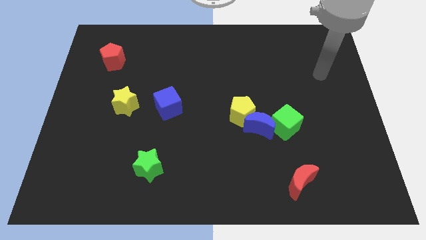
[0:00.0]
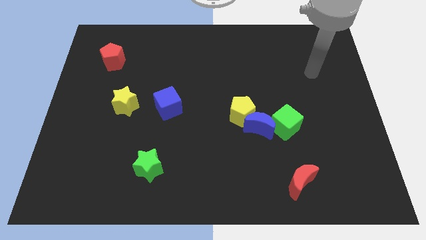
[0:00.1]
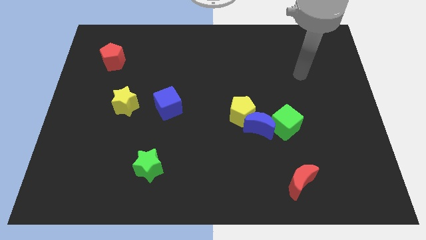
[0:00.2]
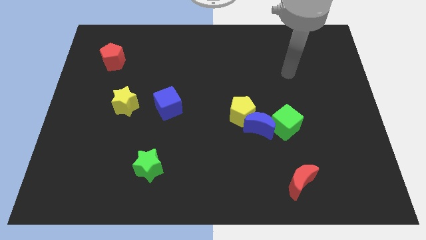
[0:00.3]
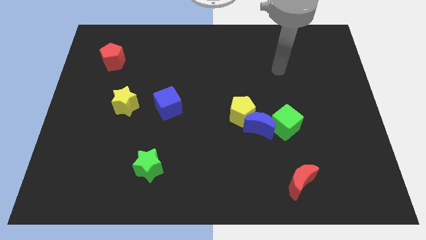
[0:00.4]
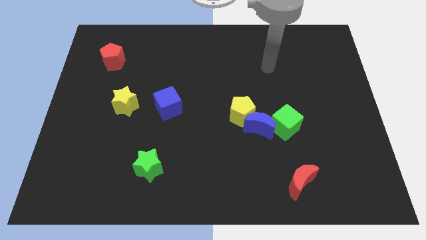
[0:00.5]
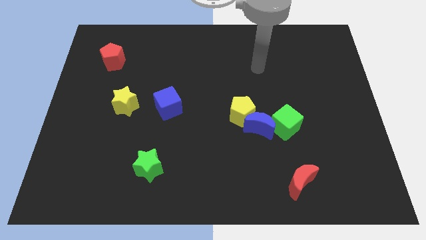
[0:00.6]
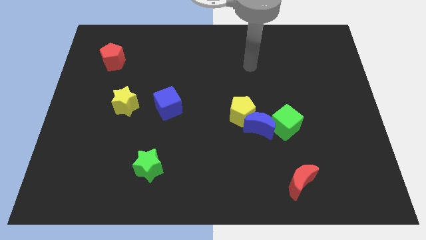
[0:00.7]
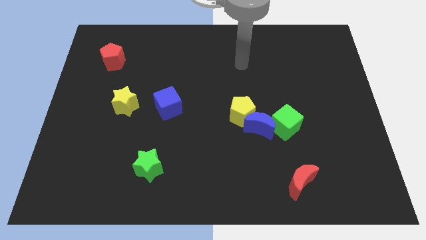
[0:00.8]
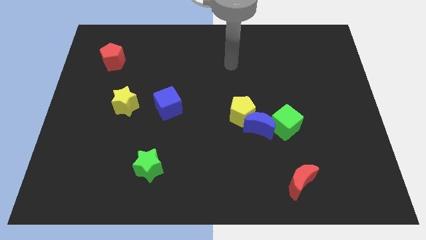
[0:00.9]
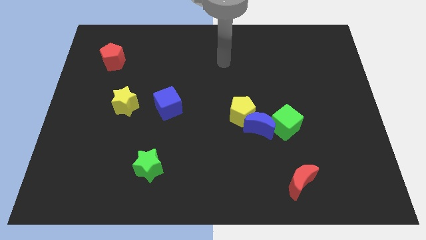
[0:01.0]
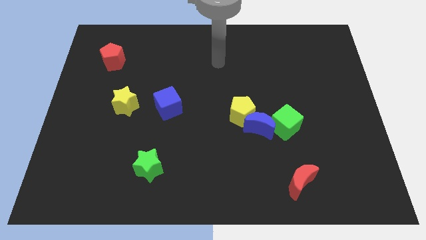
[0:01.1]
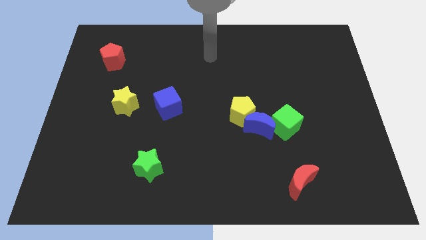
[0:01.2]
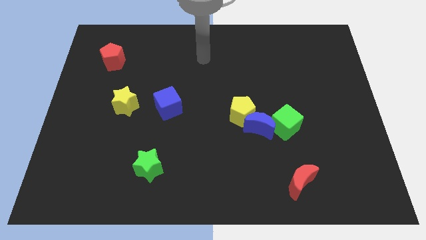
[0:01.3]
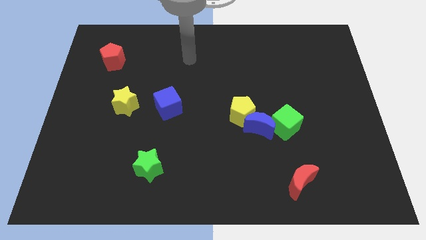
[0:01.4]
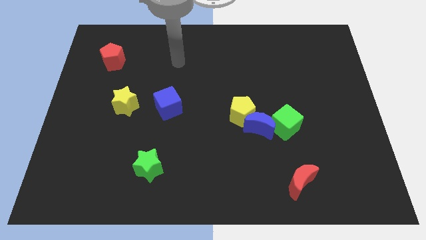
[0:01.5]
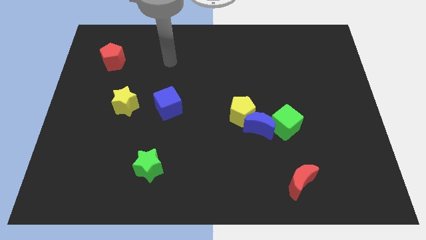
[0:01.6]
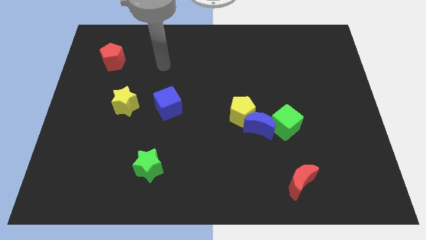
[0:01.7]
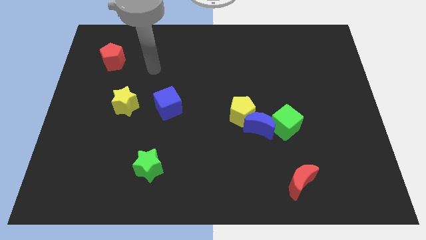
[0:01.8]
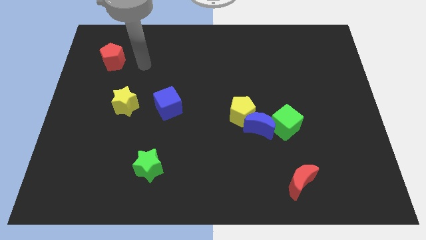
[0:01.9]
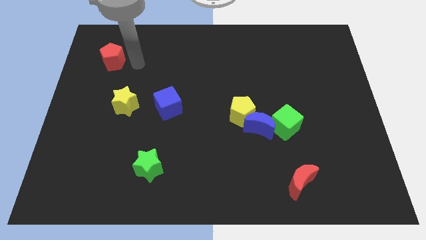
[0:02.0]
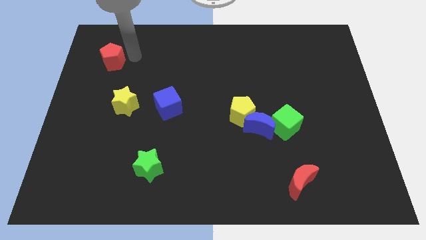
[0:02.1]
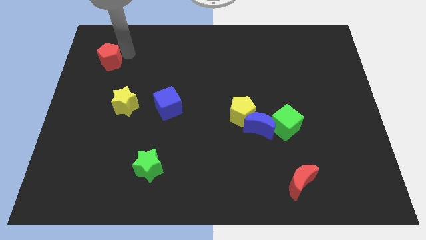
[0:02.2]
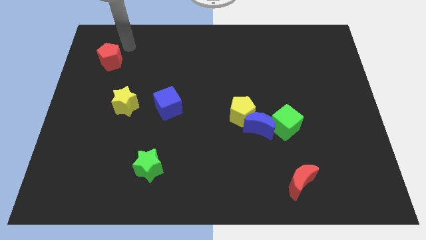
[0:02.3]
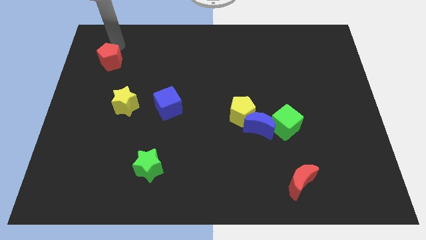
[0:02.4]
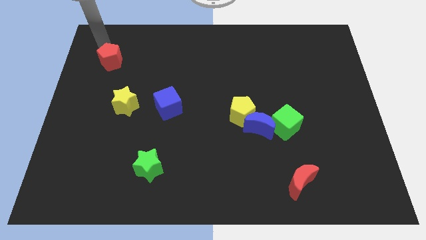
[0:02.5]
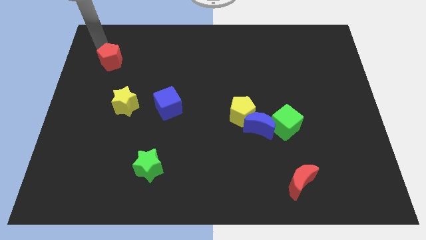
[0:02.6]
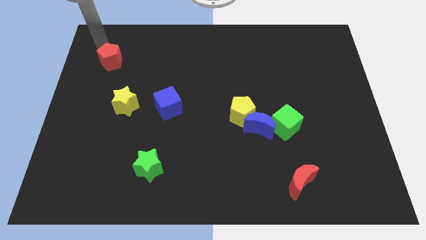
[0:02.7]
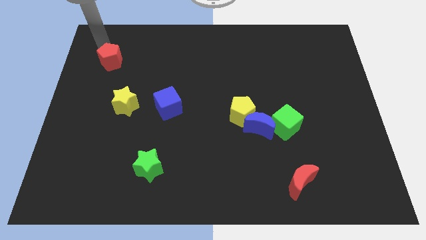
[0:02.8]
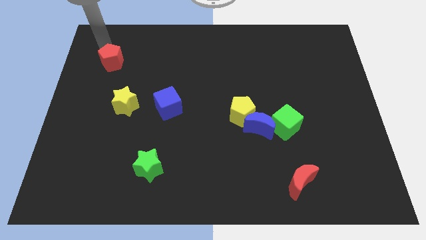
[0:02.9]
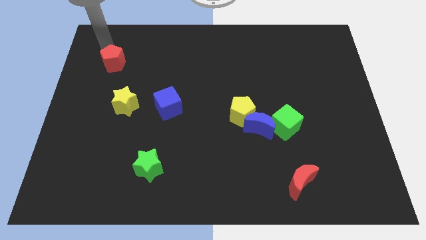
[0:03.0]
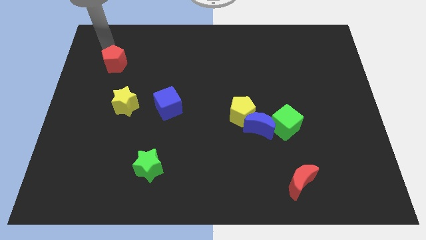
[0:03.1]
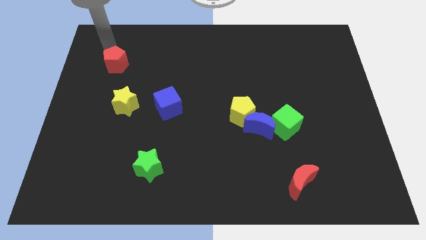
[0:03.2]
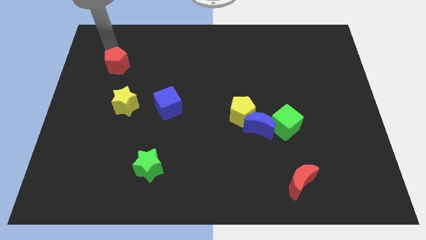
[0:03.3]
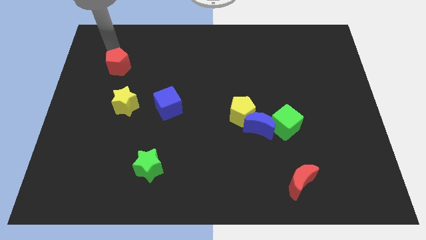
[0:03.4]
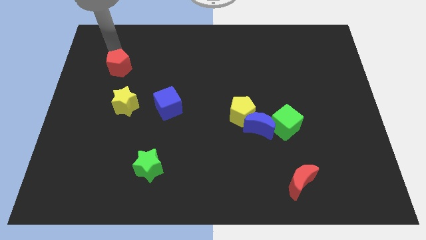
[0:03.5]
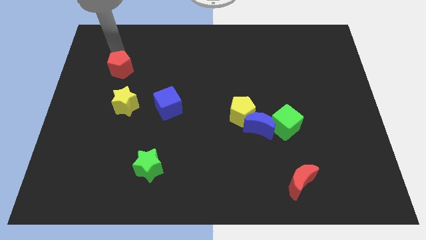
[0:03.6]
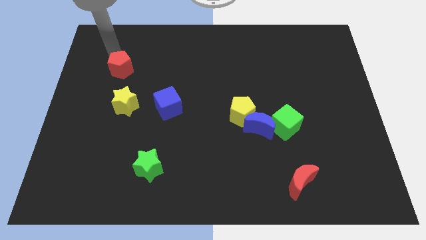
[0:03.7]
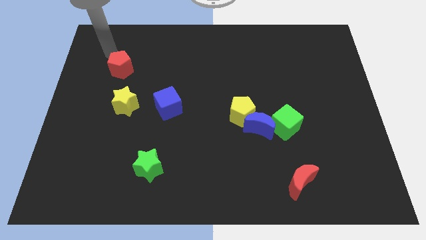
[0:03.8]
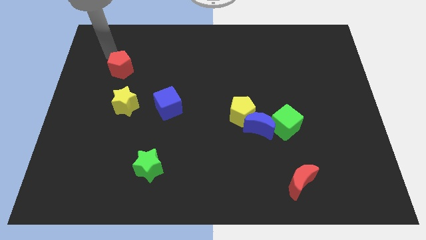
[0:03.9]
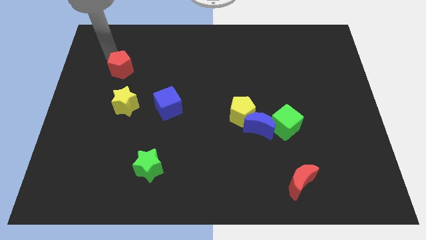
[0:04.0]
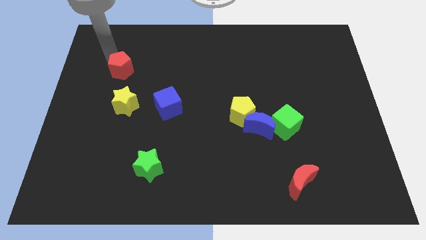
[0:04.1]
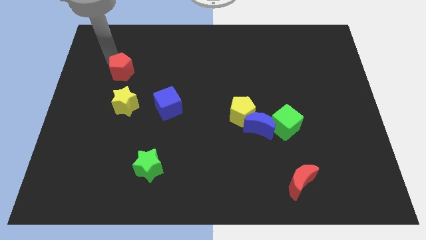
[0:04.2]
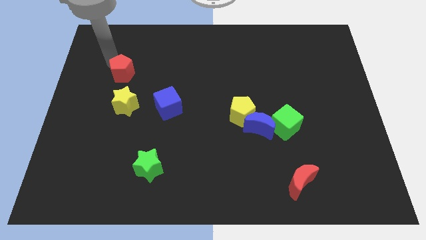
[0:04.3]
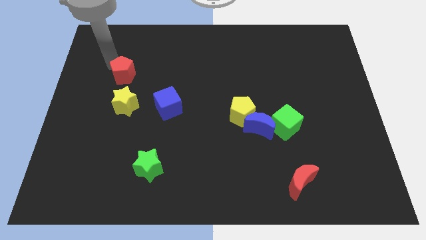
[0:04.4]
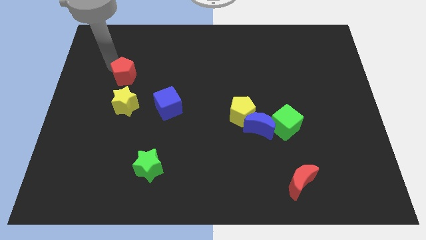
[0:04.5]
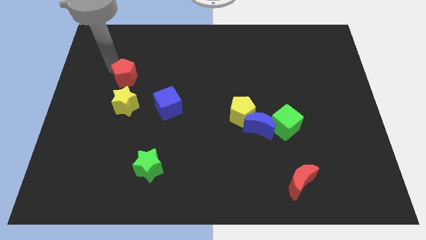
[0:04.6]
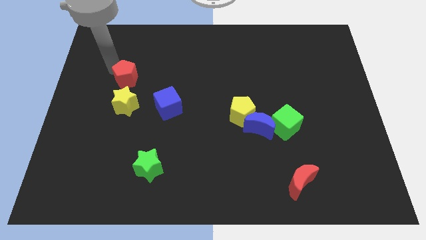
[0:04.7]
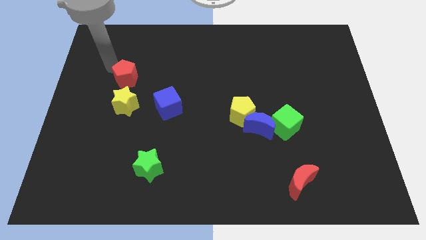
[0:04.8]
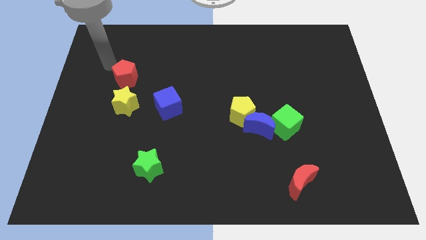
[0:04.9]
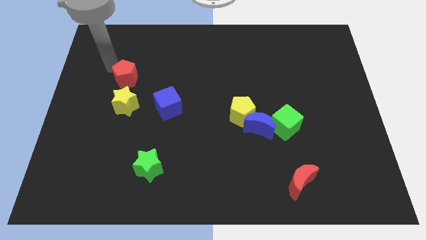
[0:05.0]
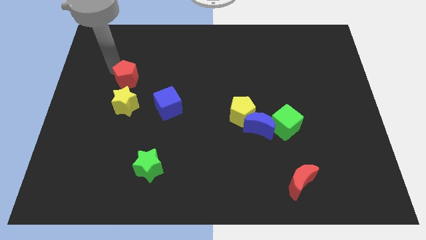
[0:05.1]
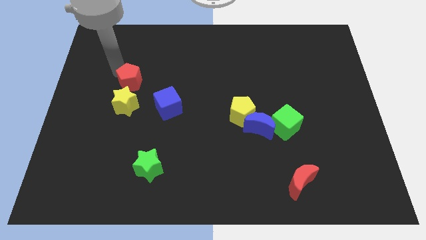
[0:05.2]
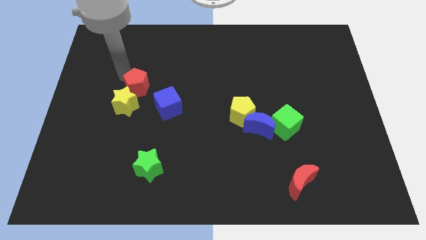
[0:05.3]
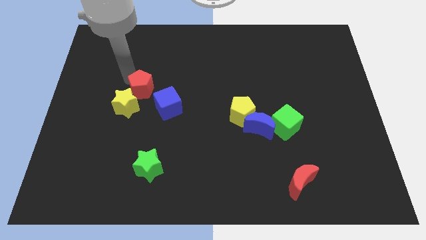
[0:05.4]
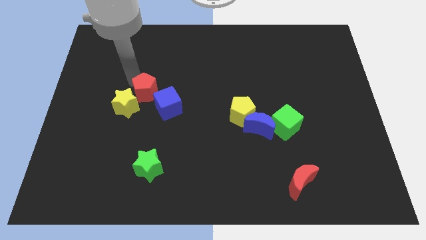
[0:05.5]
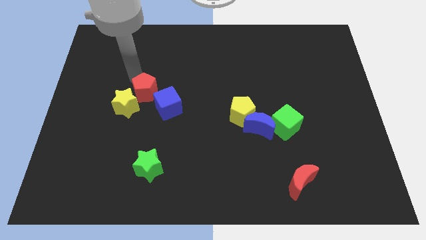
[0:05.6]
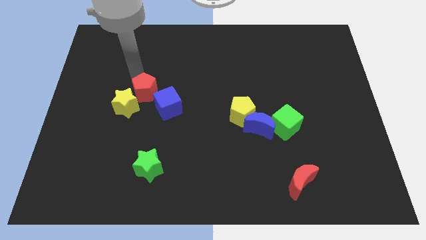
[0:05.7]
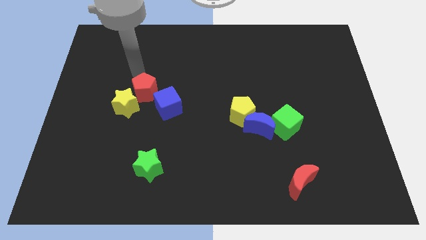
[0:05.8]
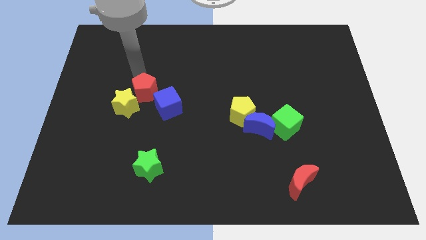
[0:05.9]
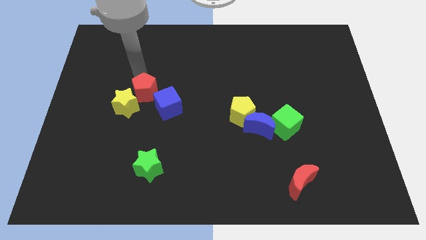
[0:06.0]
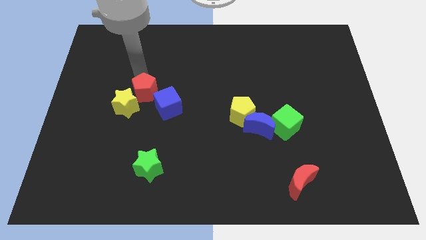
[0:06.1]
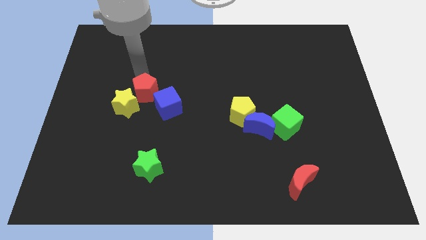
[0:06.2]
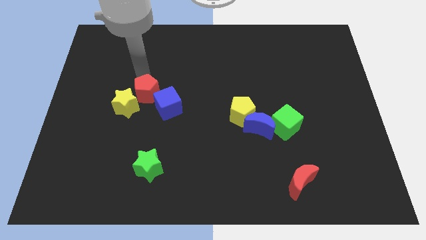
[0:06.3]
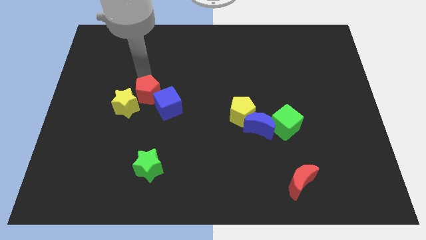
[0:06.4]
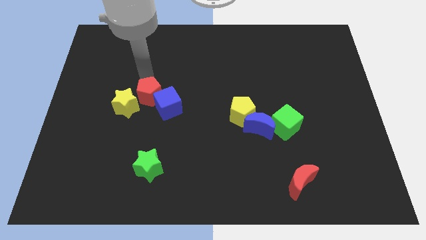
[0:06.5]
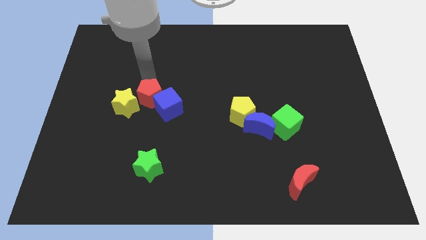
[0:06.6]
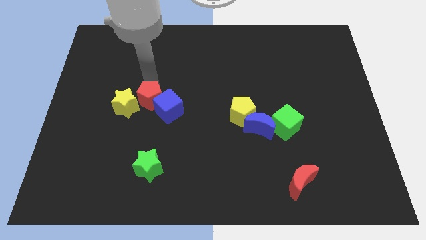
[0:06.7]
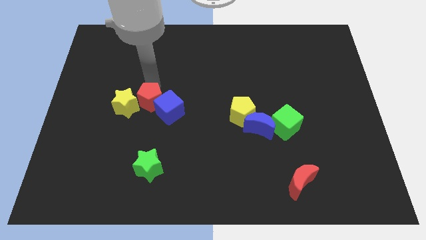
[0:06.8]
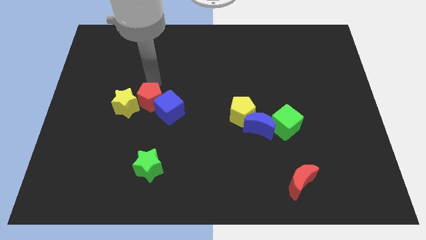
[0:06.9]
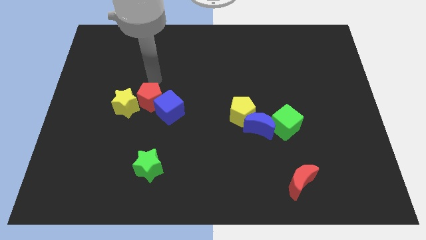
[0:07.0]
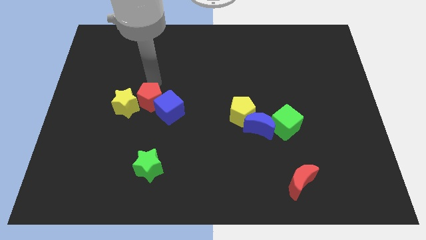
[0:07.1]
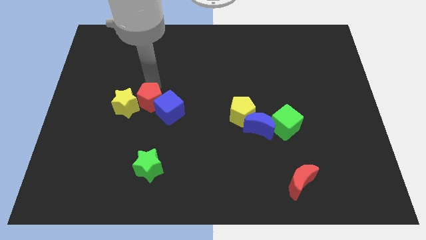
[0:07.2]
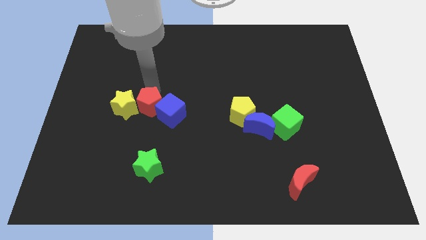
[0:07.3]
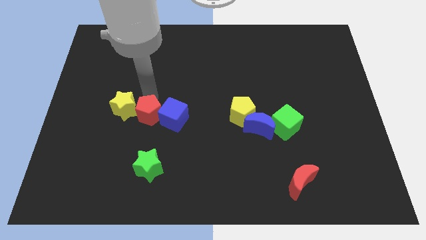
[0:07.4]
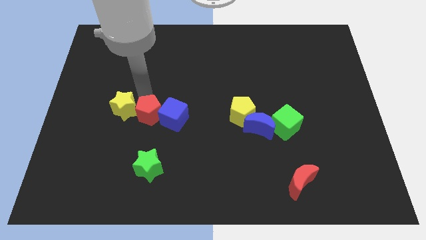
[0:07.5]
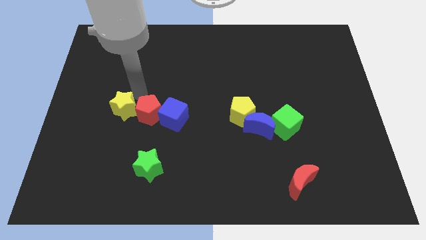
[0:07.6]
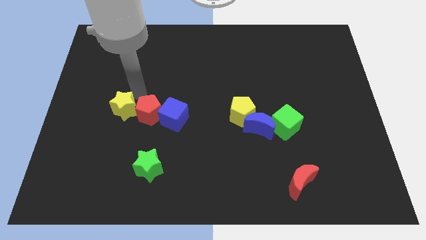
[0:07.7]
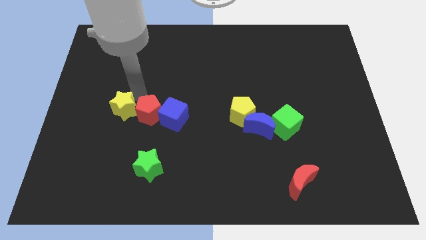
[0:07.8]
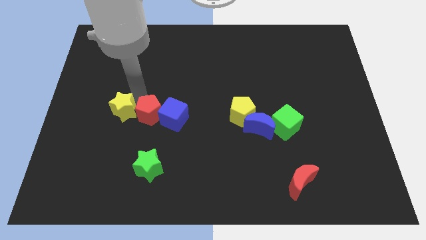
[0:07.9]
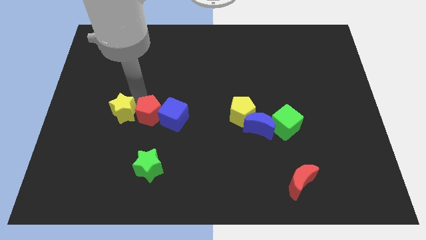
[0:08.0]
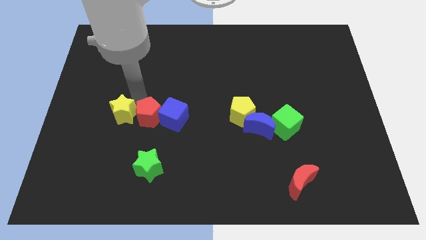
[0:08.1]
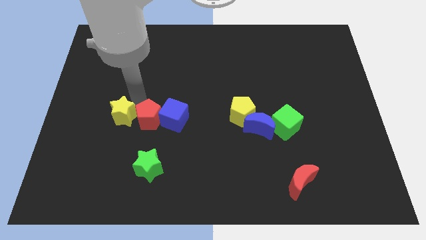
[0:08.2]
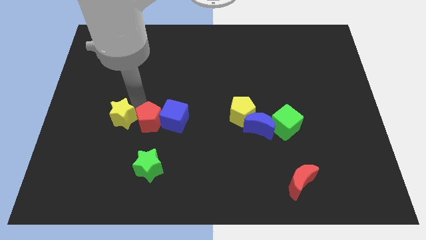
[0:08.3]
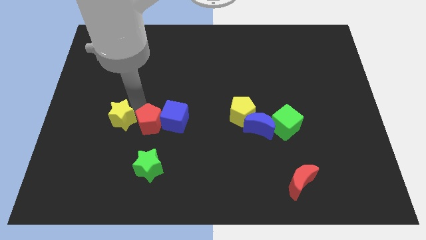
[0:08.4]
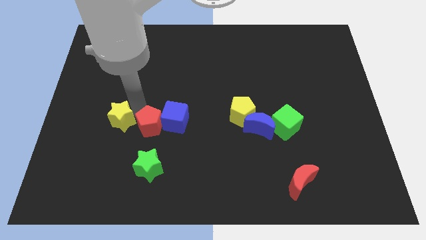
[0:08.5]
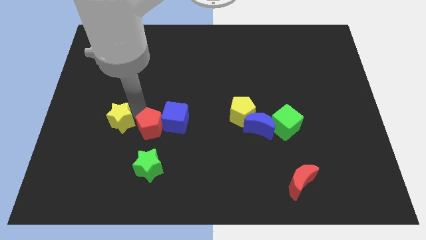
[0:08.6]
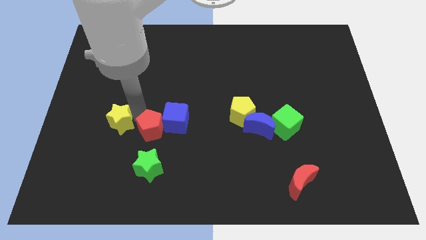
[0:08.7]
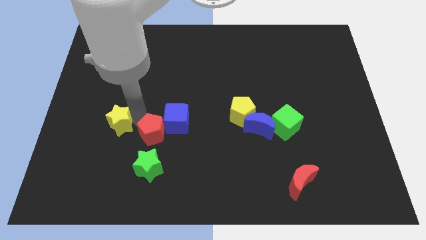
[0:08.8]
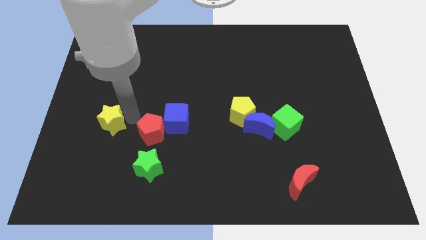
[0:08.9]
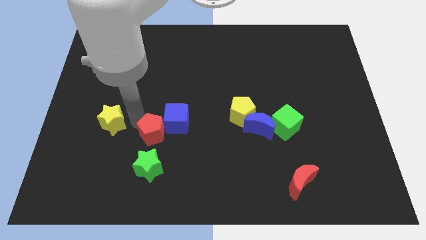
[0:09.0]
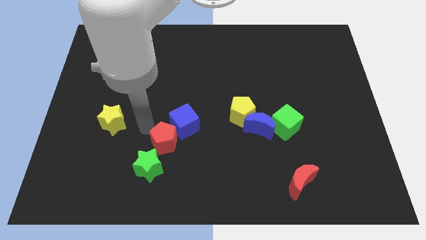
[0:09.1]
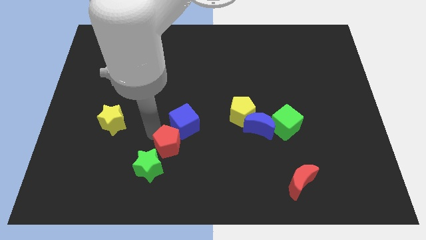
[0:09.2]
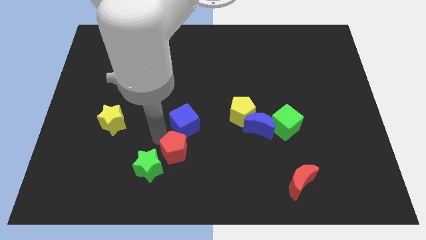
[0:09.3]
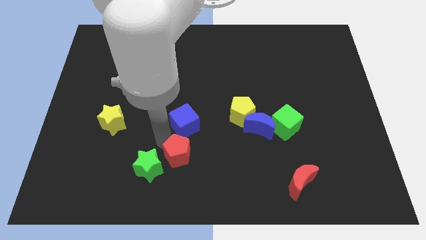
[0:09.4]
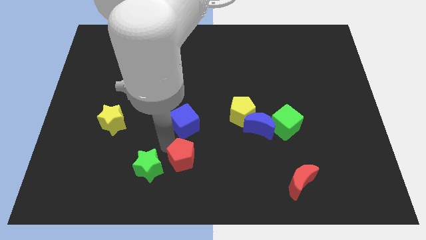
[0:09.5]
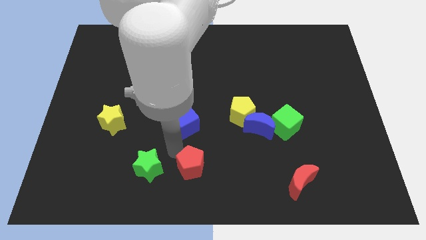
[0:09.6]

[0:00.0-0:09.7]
push the red pentagon to the bottom
